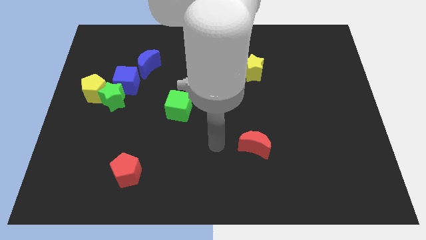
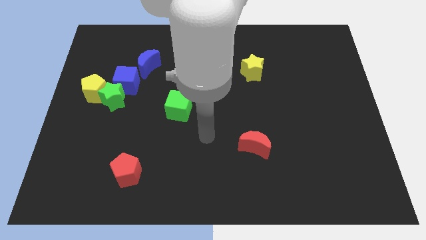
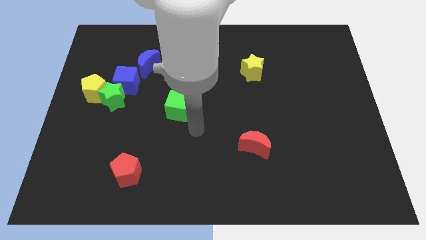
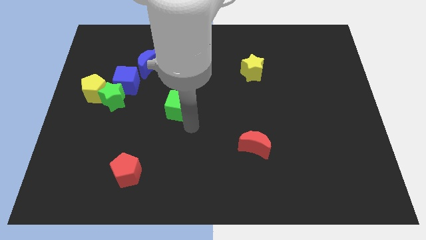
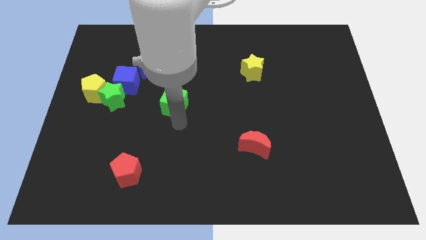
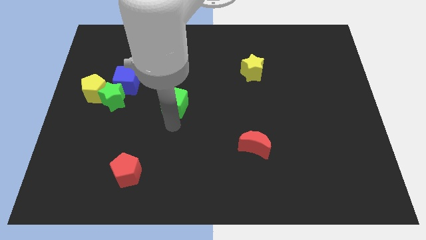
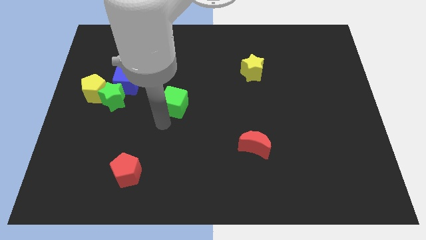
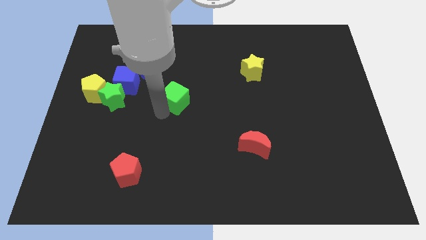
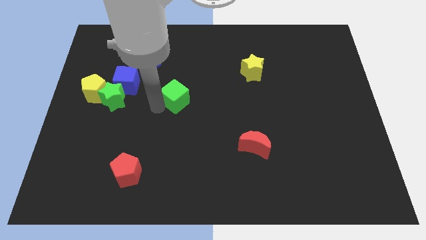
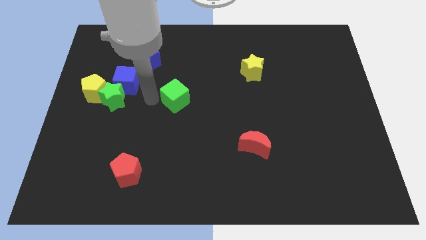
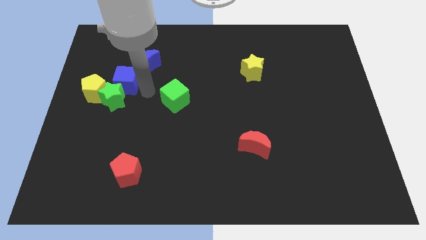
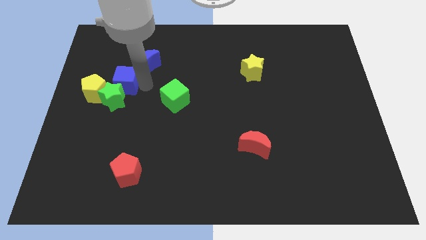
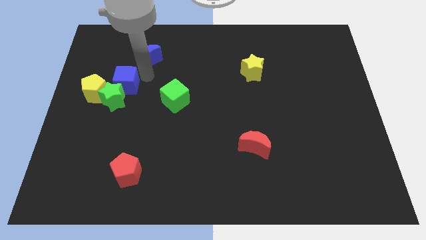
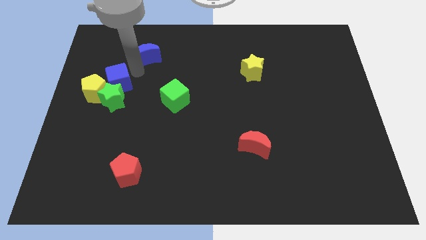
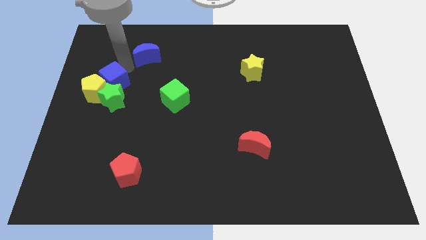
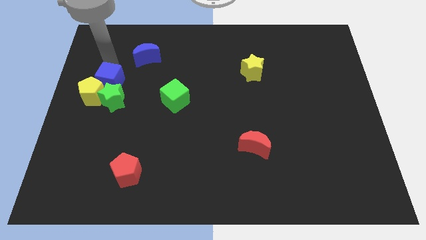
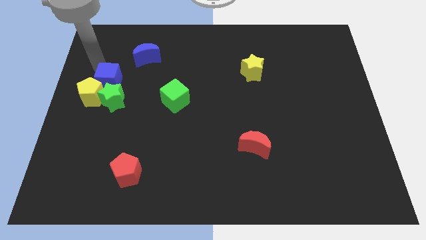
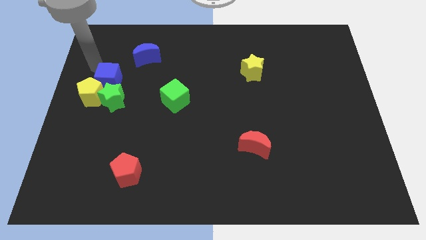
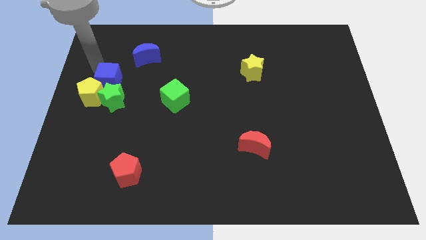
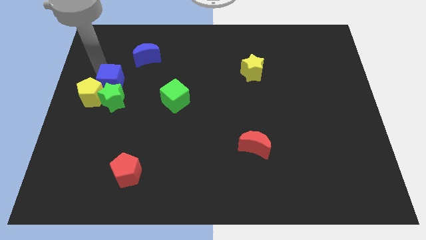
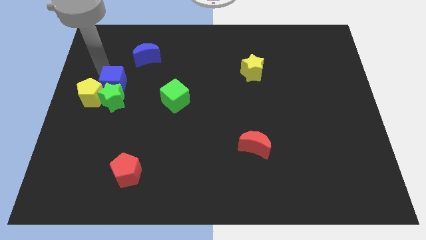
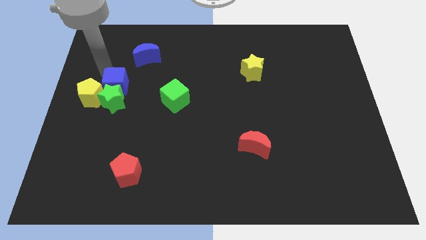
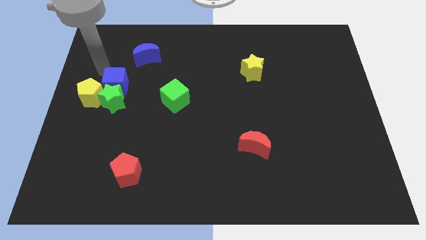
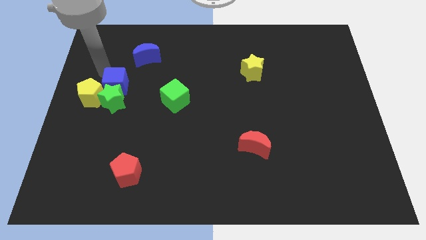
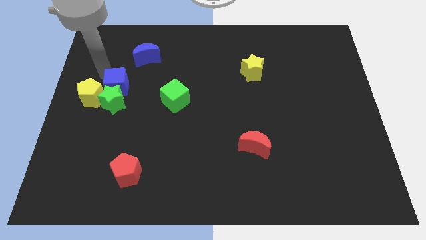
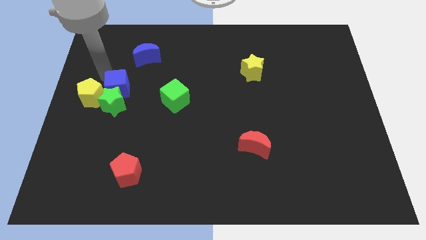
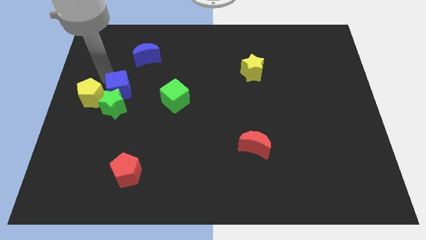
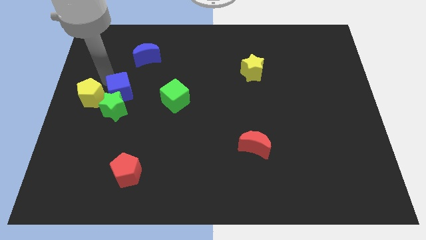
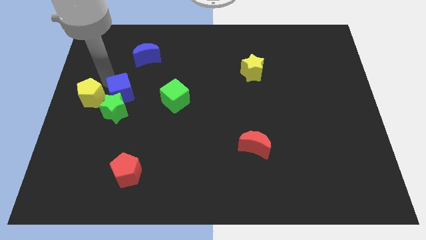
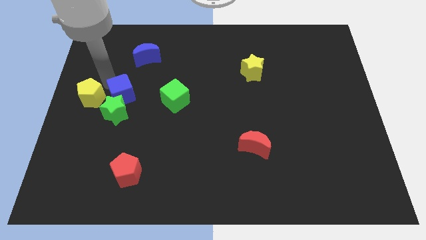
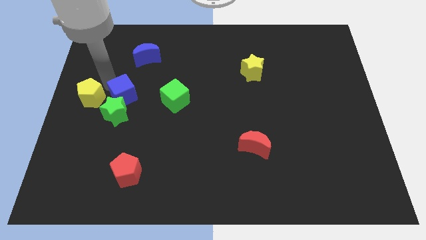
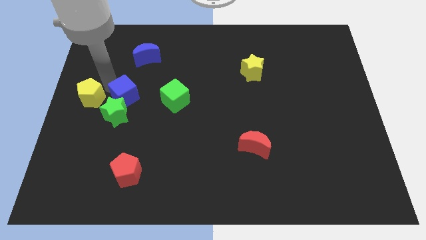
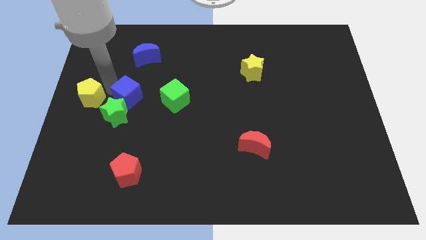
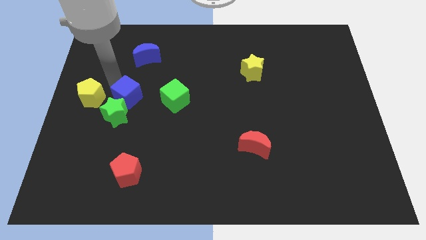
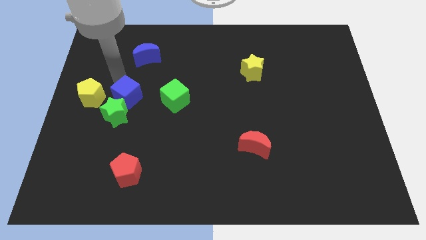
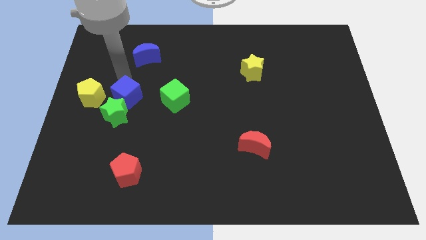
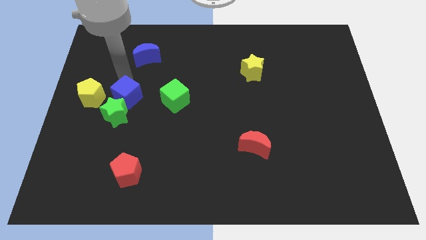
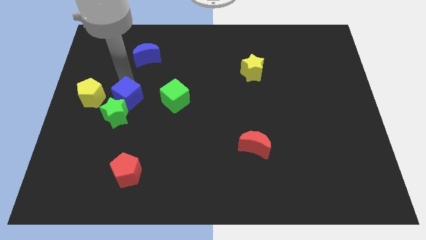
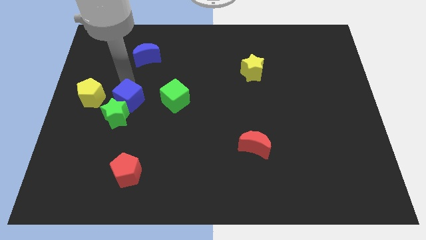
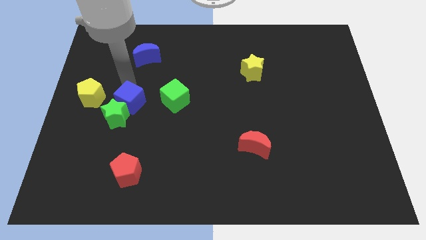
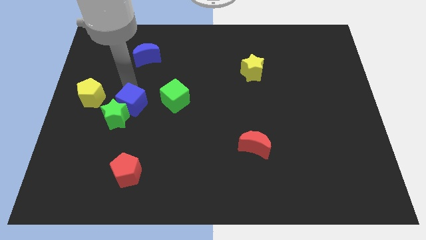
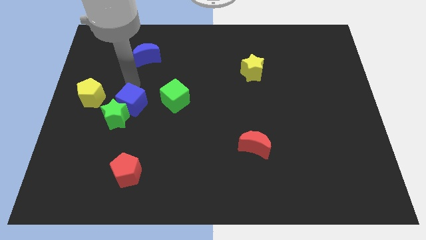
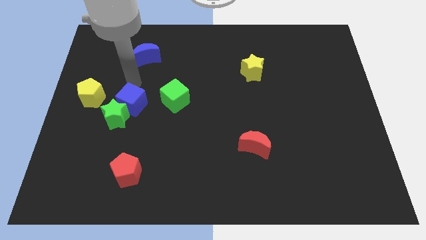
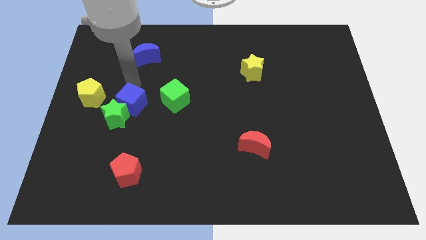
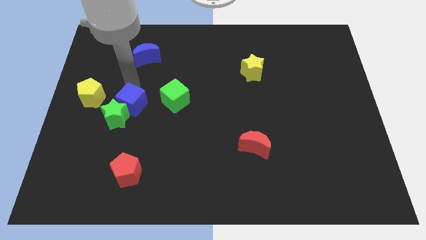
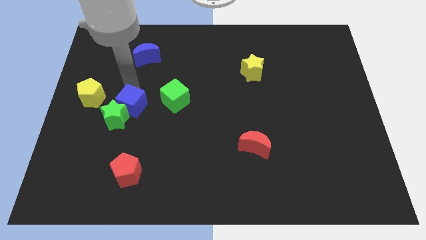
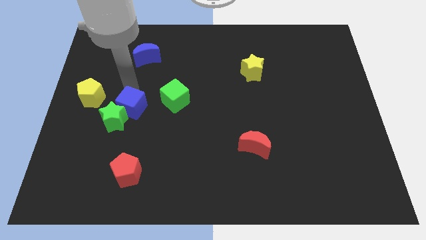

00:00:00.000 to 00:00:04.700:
slightly slide the blue cube downwards

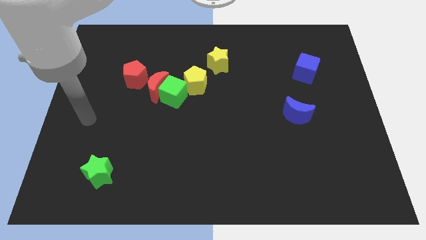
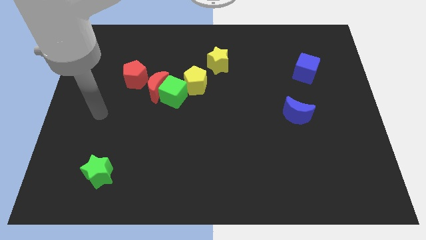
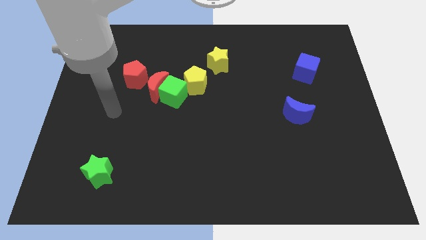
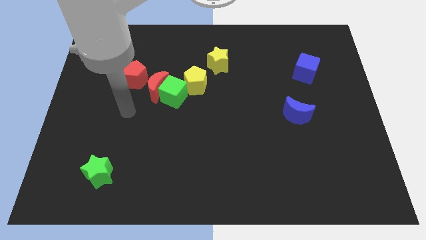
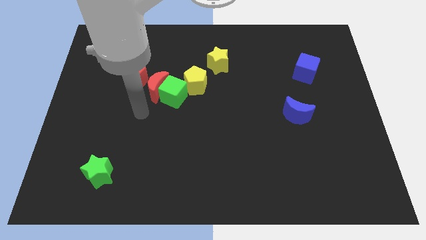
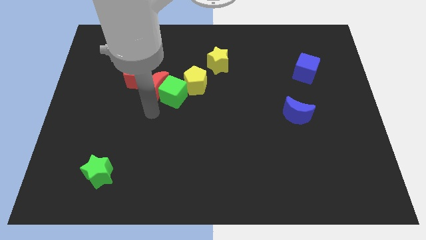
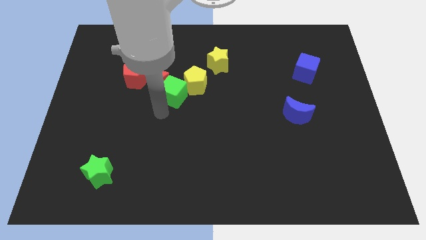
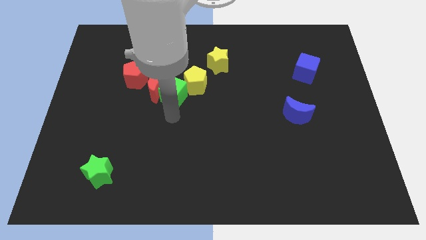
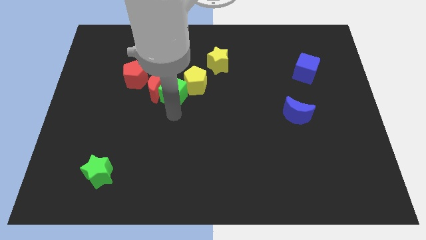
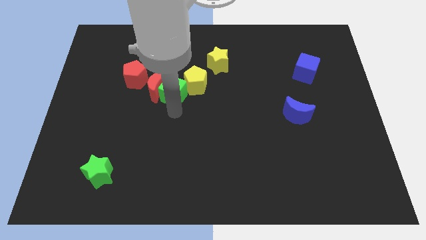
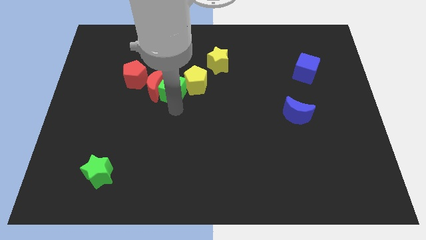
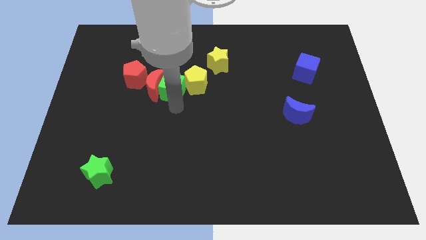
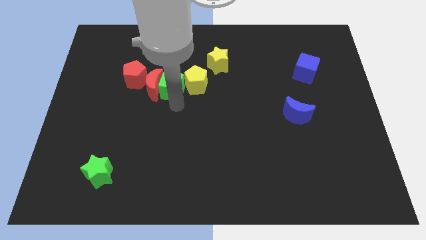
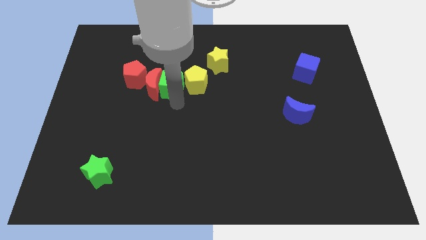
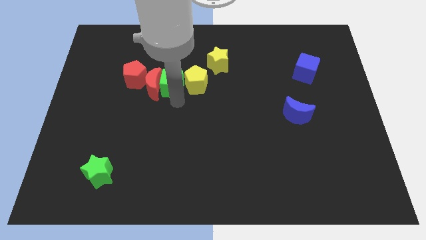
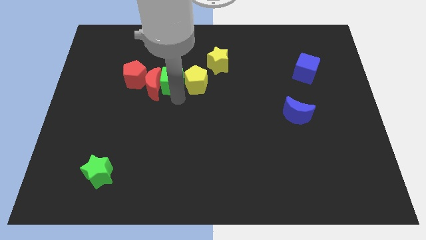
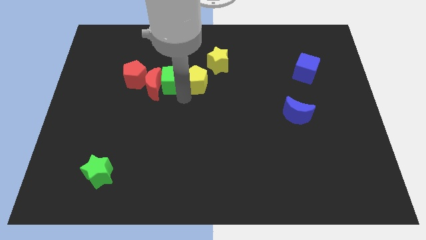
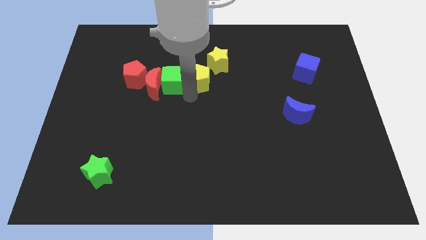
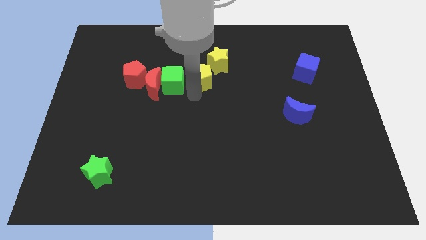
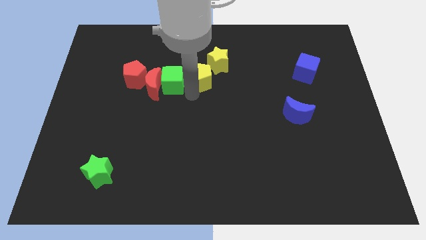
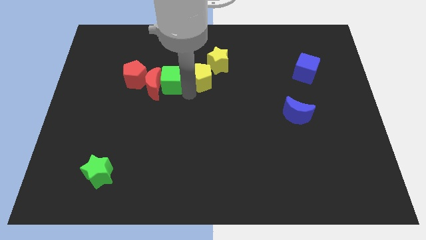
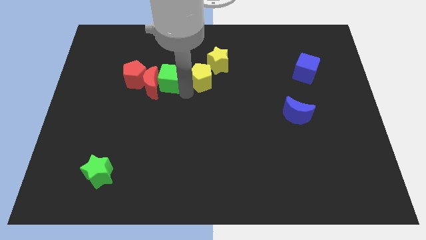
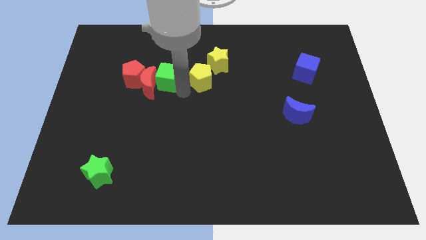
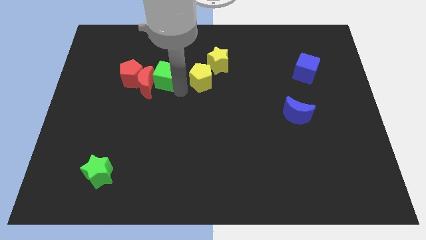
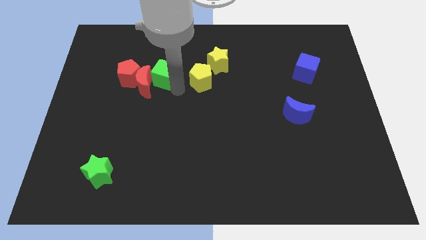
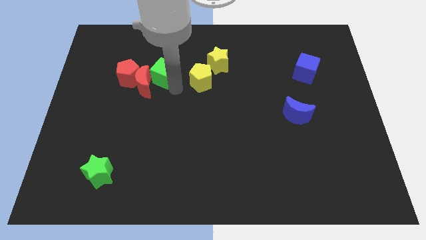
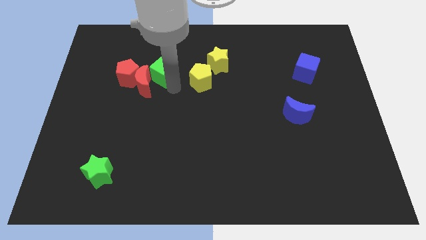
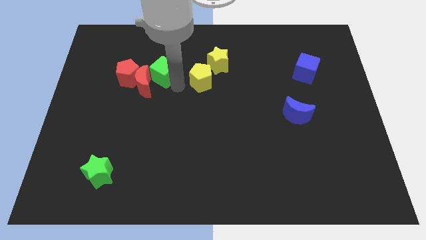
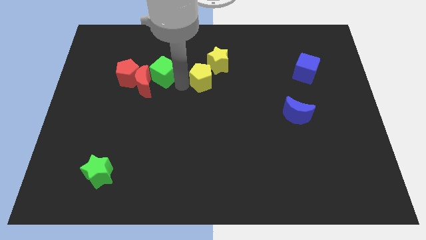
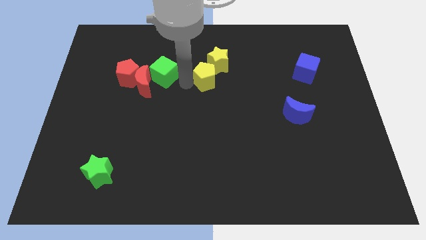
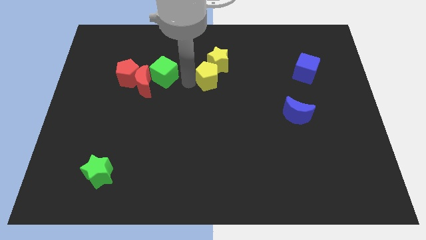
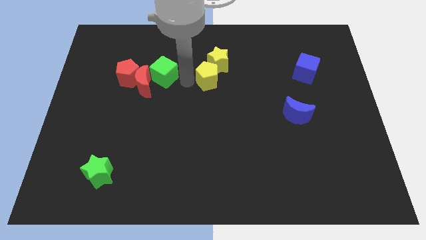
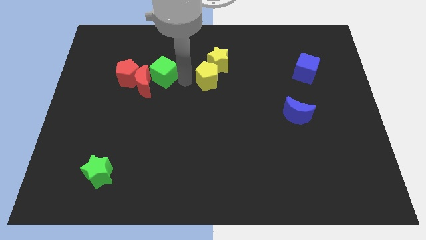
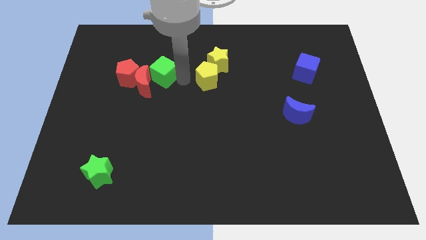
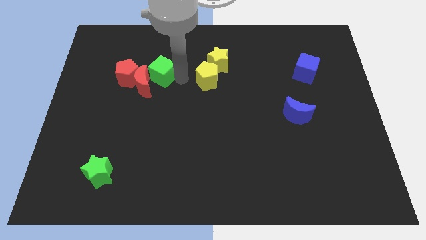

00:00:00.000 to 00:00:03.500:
slightly slide the green cube up and then left

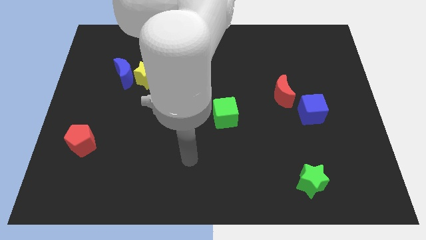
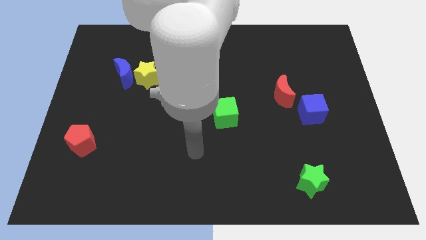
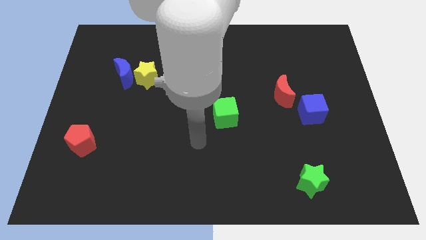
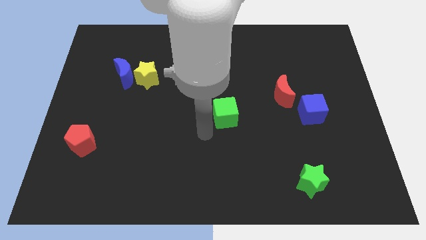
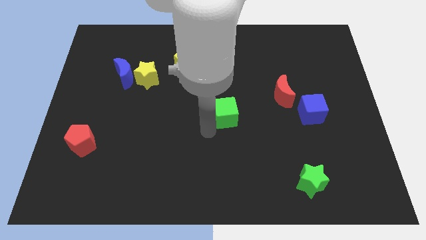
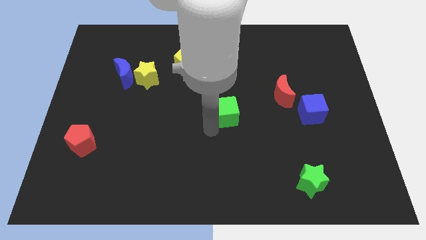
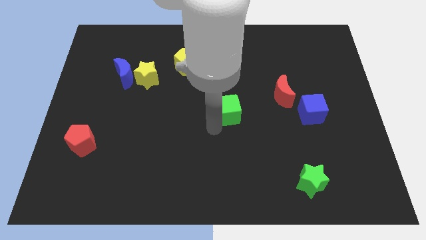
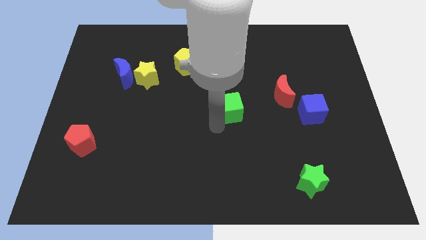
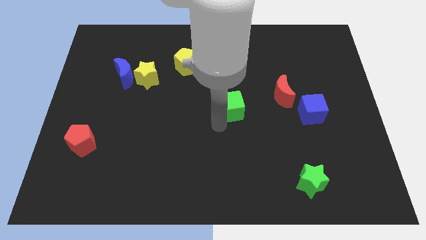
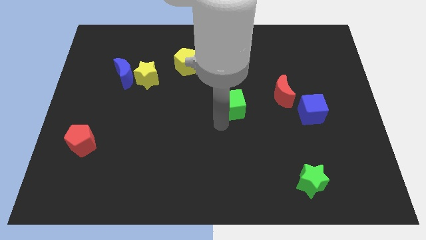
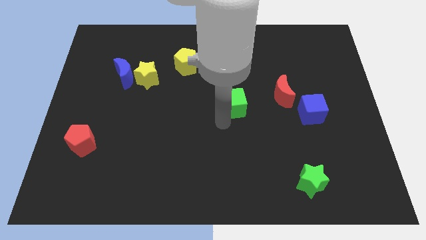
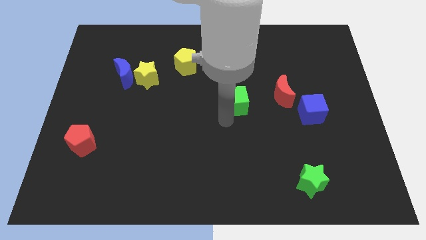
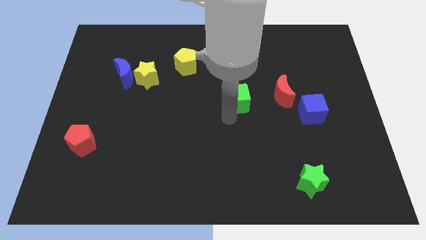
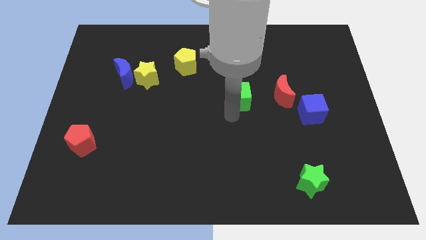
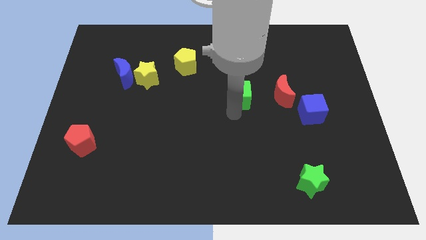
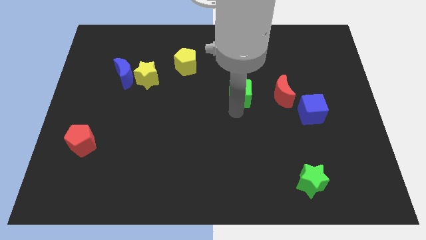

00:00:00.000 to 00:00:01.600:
push the green cube up and right diagonally somewhat
